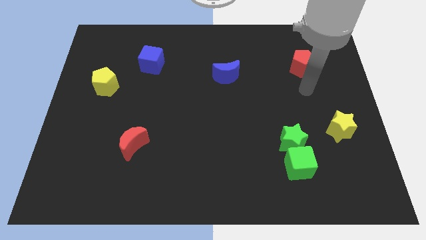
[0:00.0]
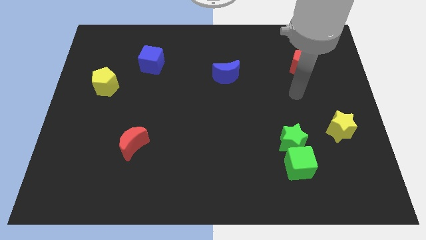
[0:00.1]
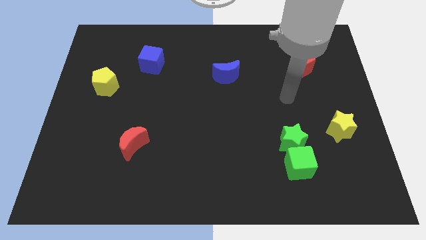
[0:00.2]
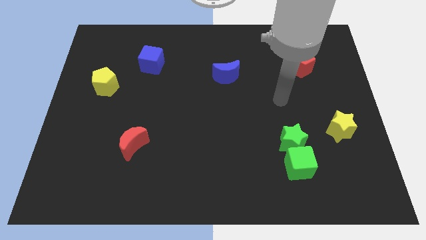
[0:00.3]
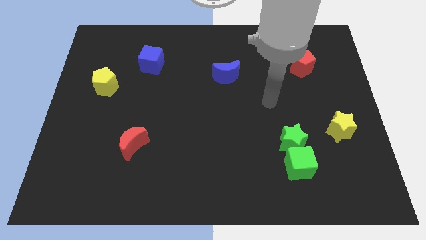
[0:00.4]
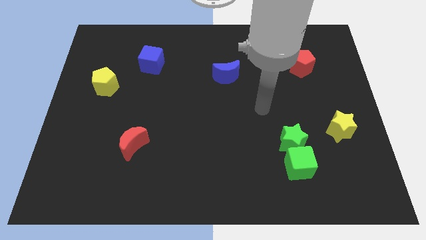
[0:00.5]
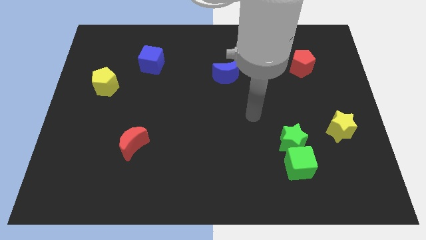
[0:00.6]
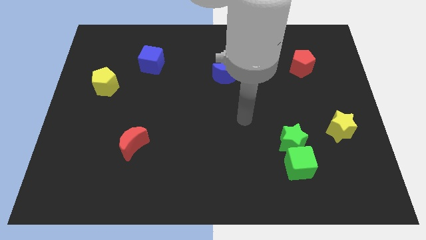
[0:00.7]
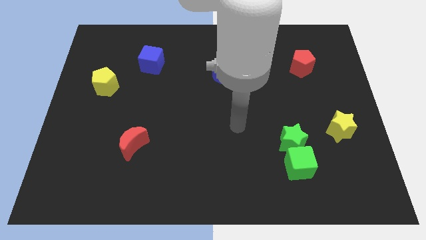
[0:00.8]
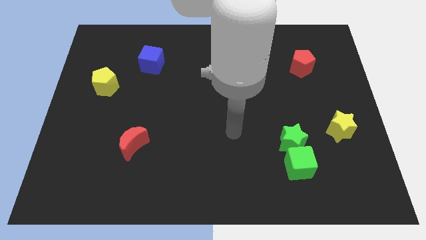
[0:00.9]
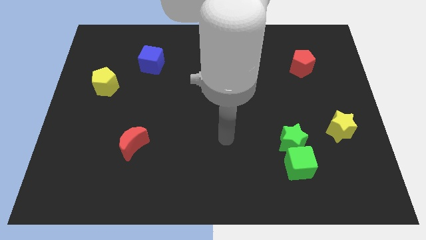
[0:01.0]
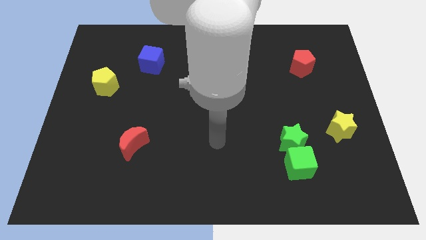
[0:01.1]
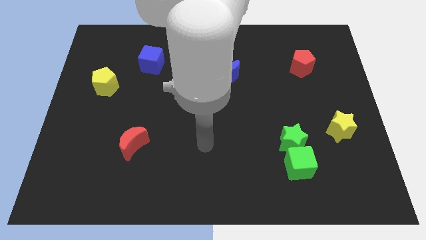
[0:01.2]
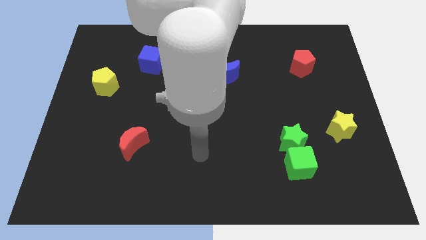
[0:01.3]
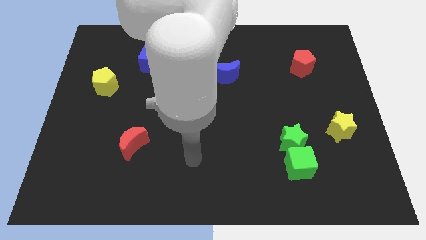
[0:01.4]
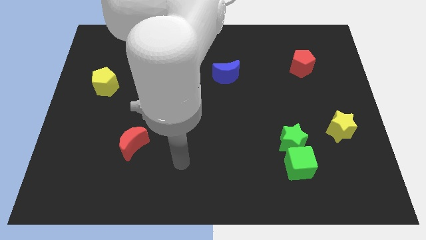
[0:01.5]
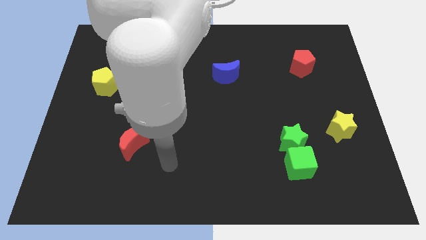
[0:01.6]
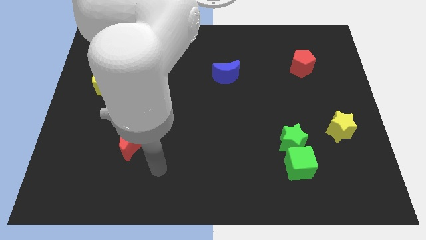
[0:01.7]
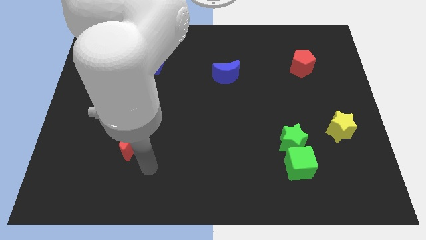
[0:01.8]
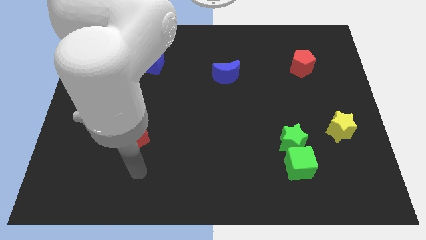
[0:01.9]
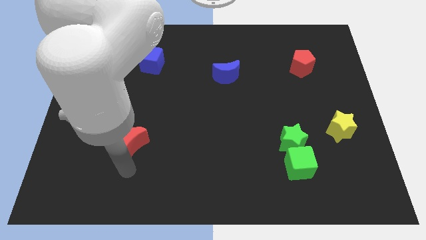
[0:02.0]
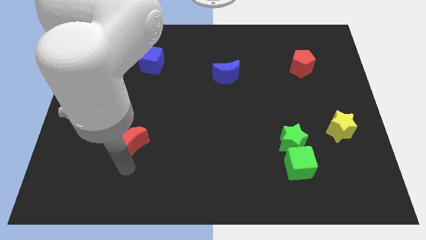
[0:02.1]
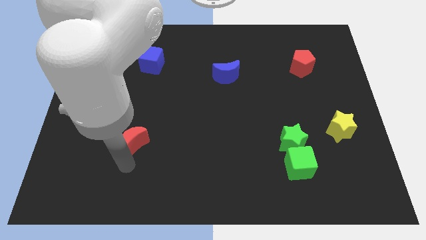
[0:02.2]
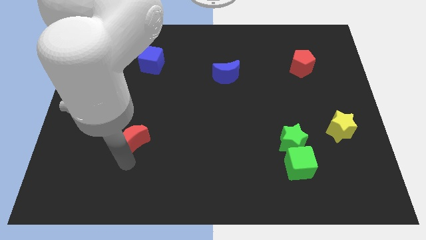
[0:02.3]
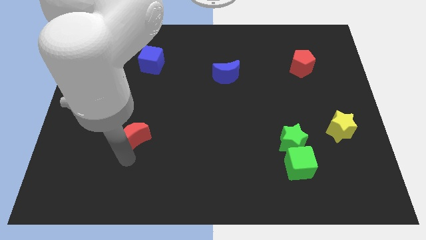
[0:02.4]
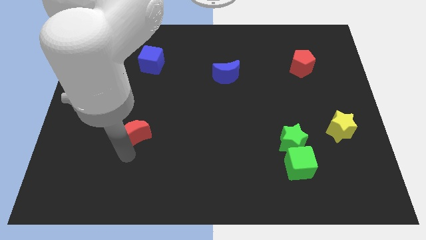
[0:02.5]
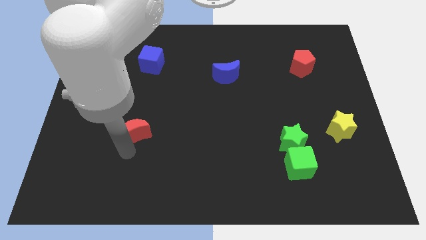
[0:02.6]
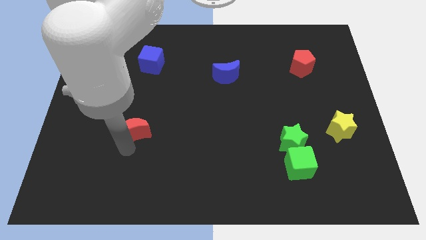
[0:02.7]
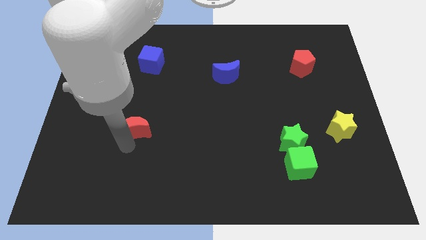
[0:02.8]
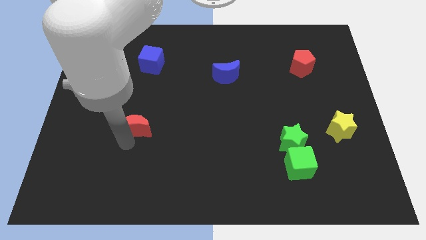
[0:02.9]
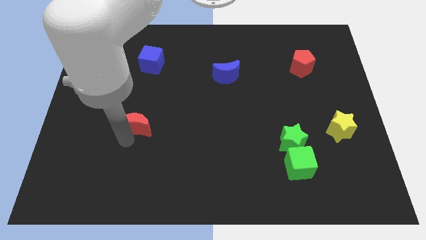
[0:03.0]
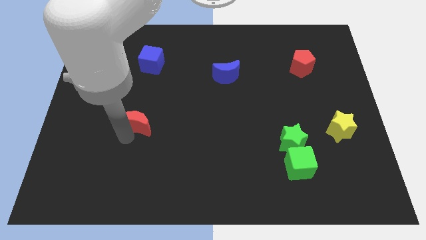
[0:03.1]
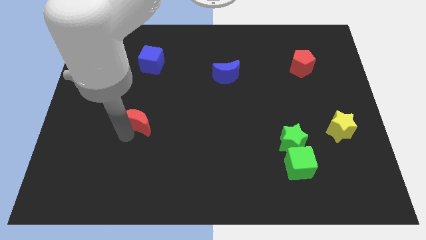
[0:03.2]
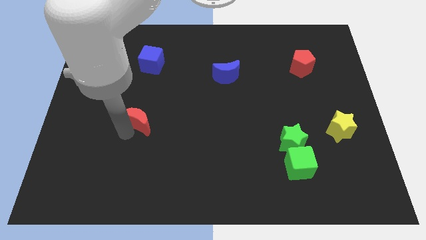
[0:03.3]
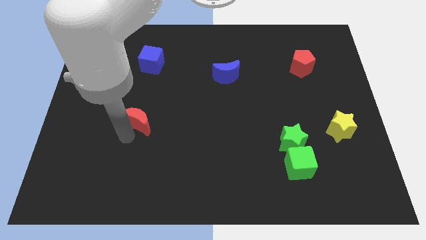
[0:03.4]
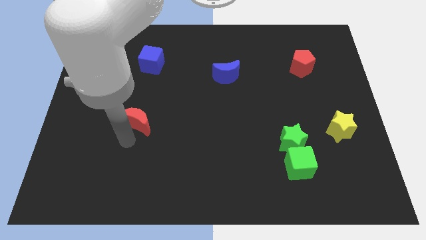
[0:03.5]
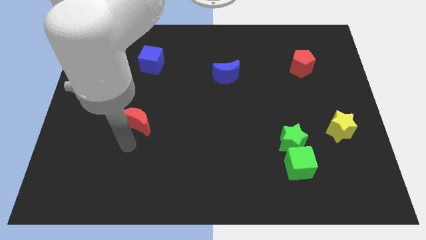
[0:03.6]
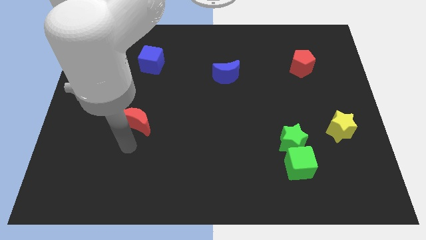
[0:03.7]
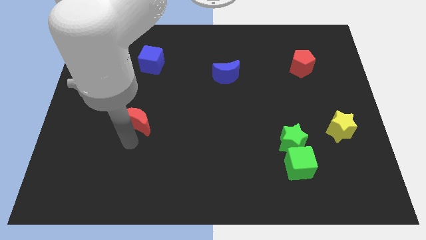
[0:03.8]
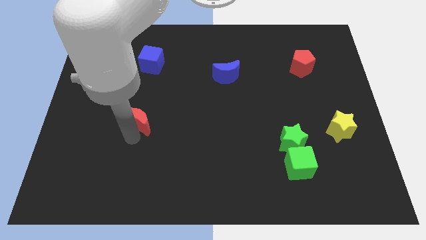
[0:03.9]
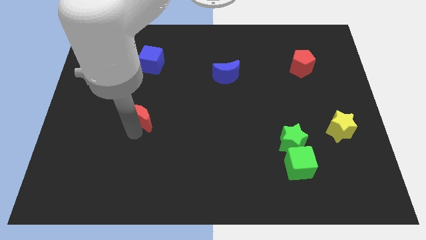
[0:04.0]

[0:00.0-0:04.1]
slightly push the red moon up

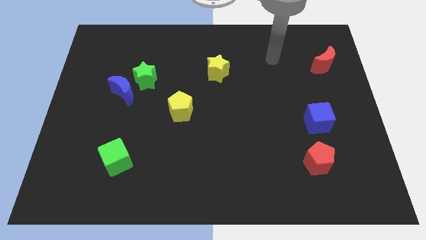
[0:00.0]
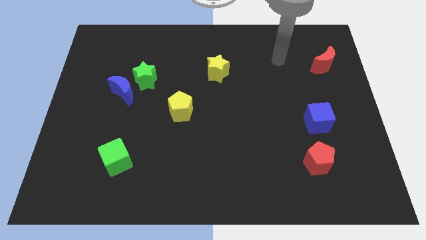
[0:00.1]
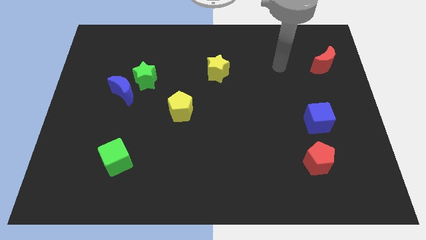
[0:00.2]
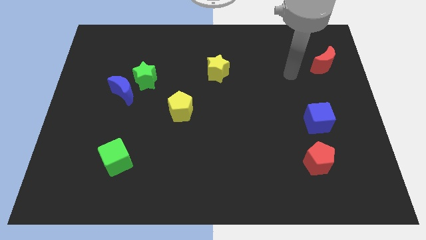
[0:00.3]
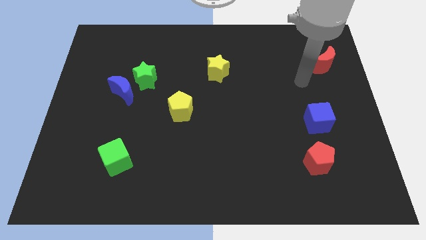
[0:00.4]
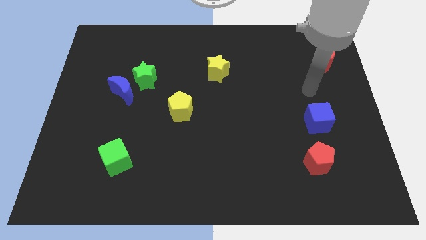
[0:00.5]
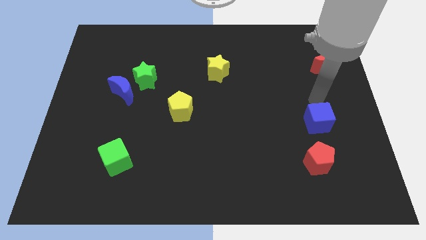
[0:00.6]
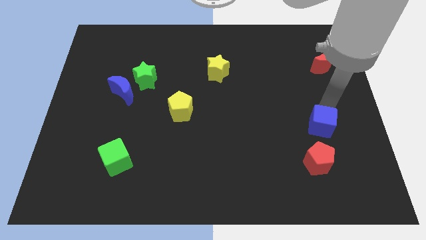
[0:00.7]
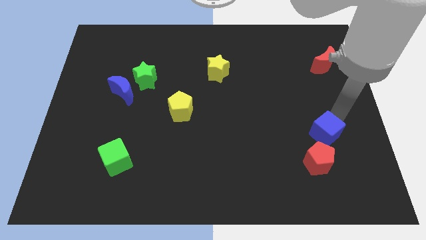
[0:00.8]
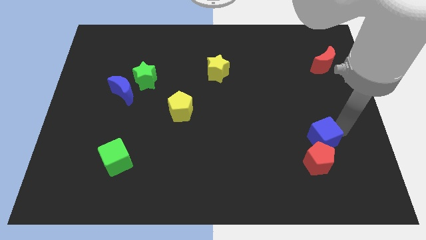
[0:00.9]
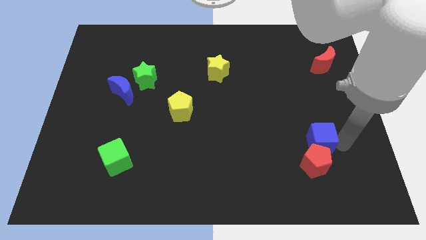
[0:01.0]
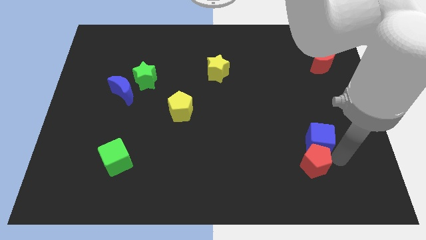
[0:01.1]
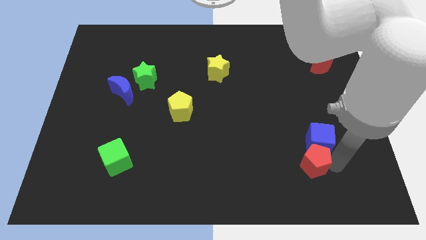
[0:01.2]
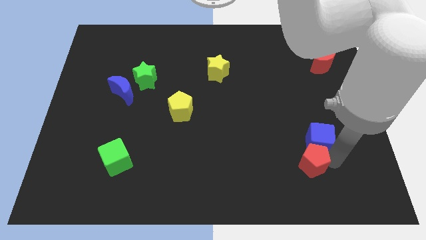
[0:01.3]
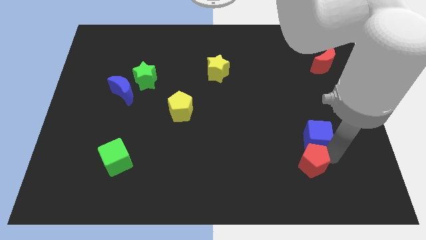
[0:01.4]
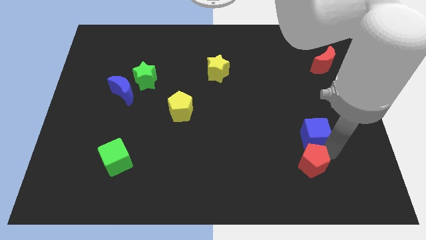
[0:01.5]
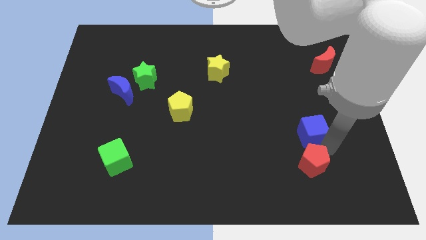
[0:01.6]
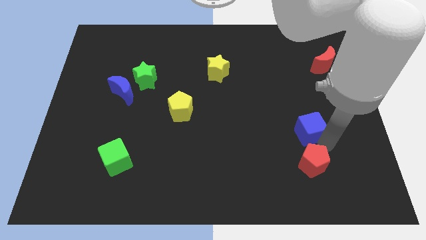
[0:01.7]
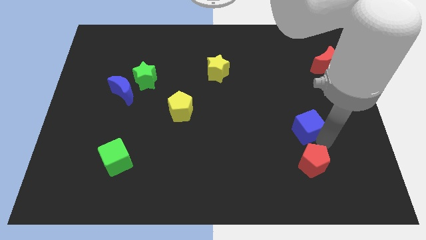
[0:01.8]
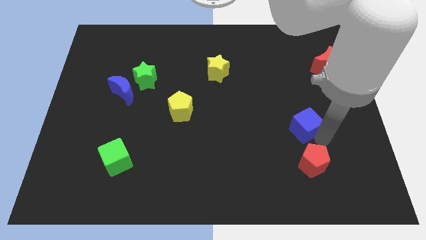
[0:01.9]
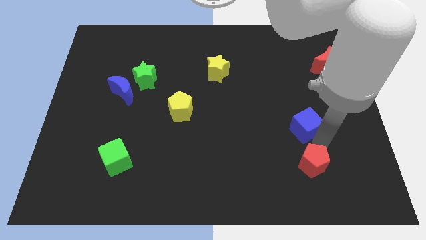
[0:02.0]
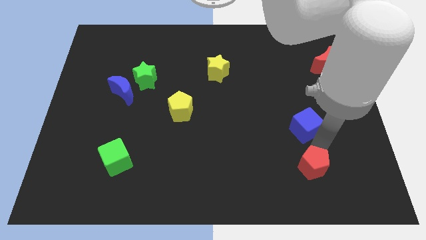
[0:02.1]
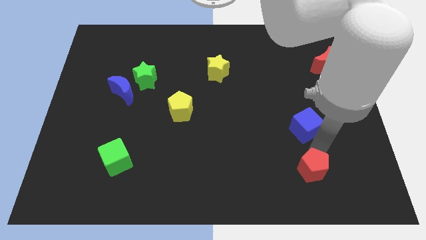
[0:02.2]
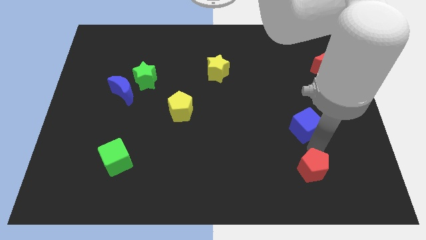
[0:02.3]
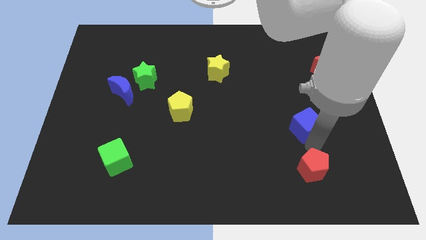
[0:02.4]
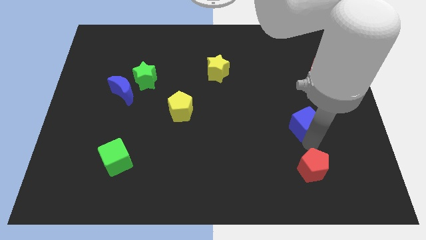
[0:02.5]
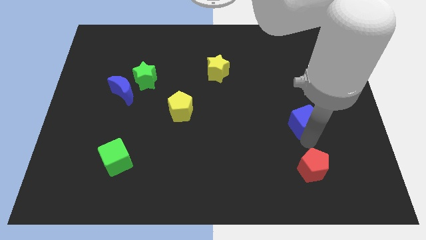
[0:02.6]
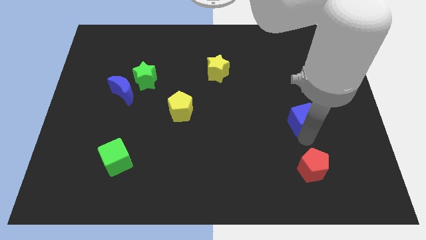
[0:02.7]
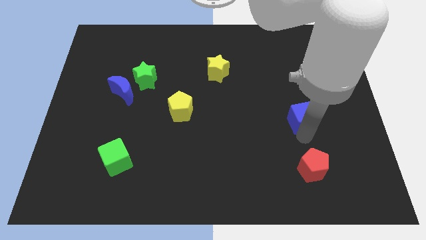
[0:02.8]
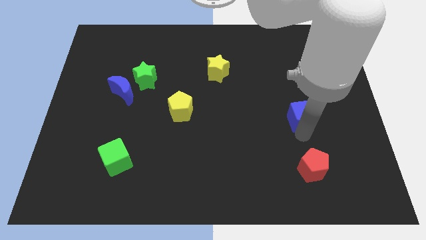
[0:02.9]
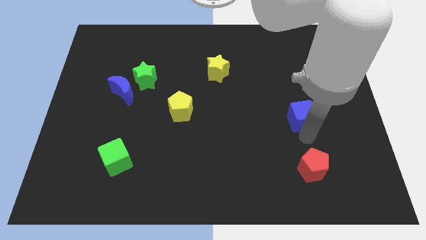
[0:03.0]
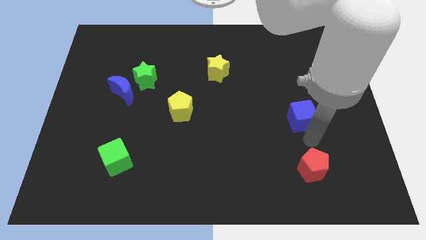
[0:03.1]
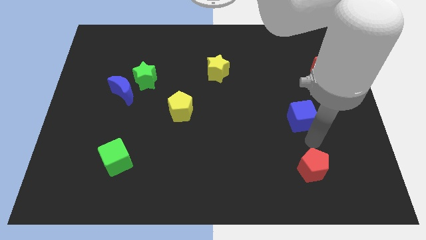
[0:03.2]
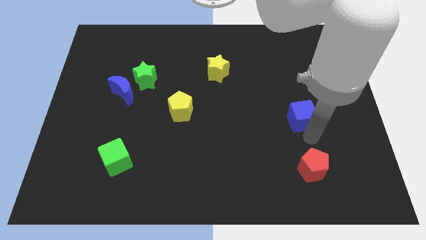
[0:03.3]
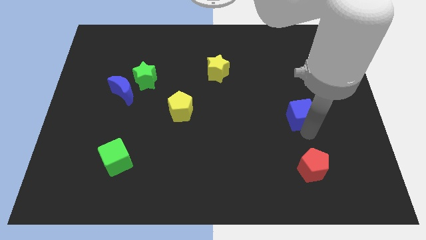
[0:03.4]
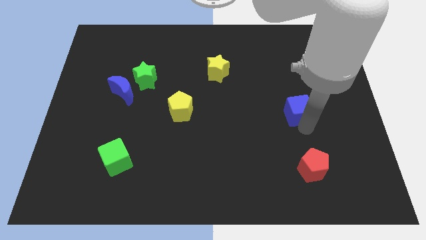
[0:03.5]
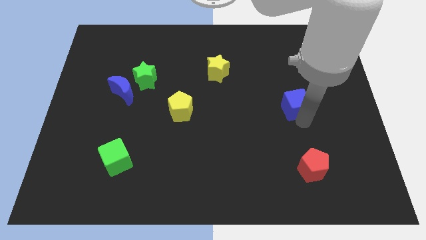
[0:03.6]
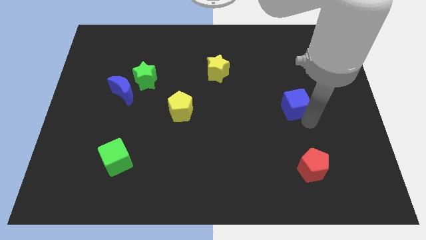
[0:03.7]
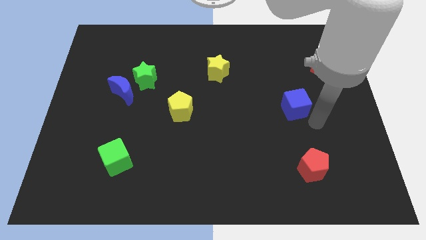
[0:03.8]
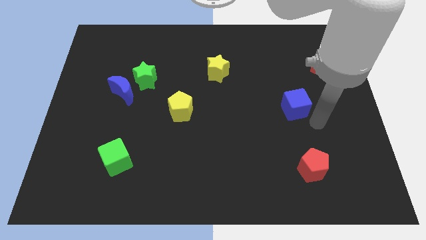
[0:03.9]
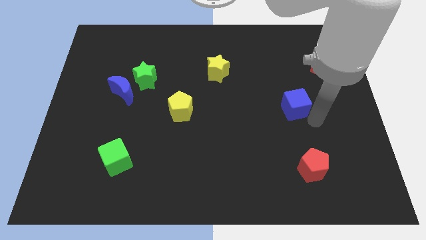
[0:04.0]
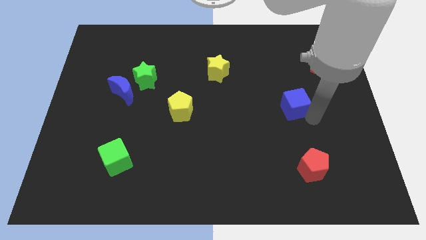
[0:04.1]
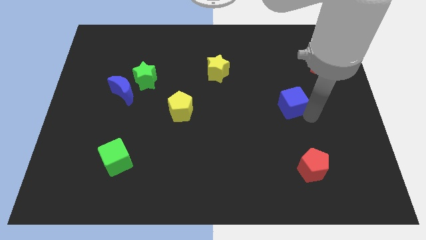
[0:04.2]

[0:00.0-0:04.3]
slide the blue cube upwards and left diagonally a bit
